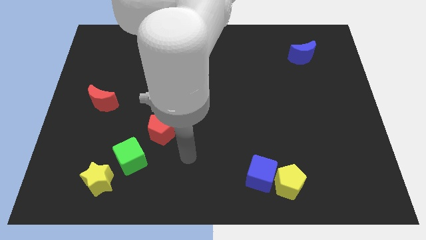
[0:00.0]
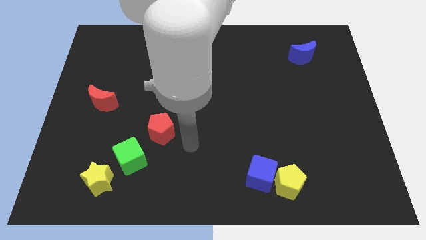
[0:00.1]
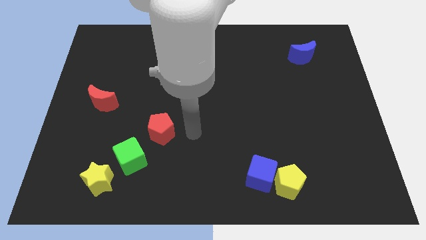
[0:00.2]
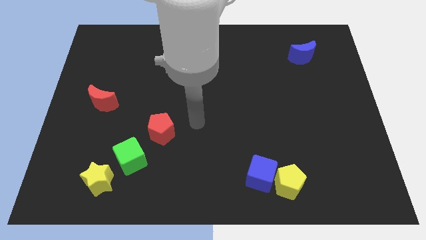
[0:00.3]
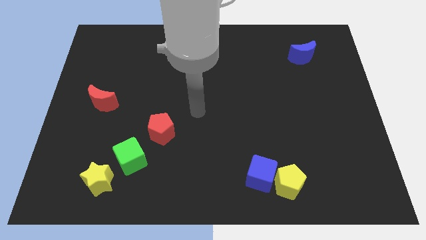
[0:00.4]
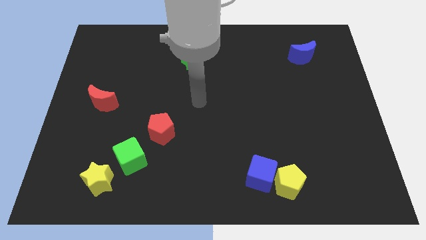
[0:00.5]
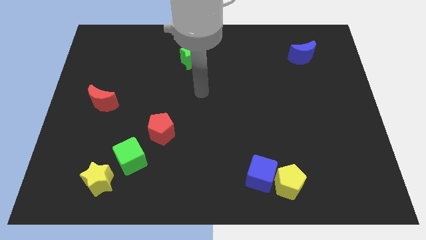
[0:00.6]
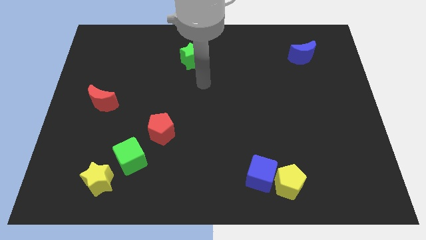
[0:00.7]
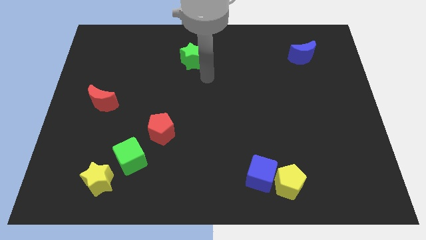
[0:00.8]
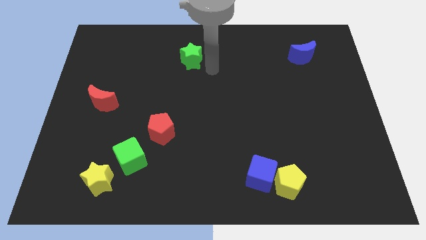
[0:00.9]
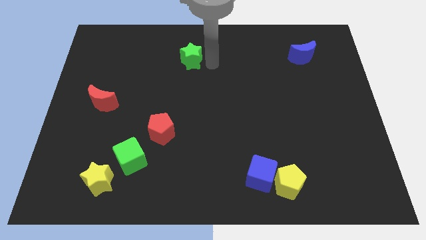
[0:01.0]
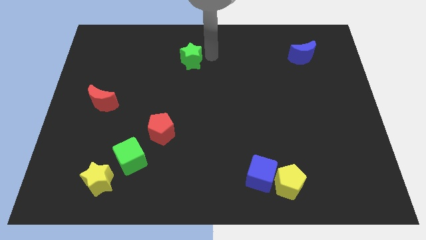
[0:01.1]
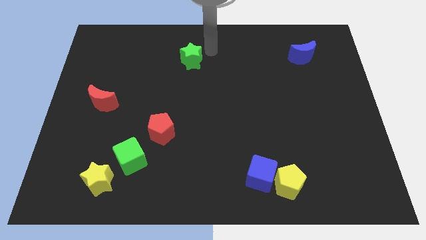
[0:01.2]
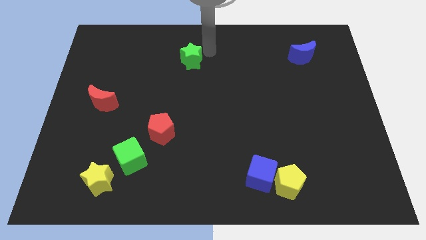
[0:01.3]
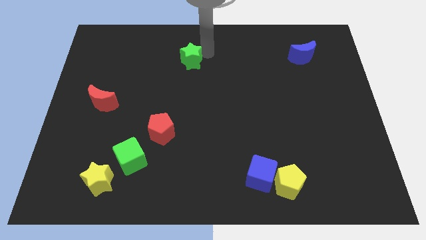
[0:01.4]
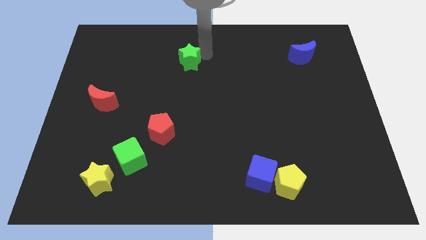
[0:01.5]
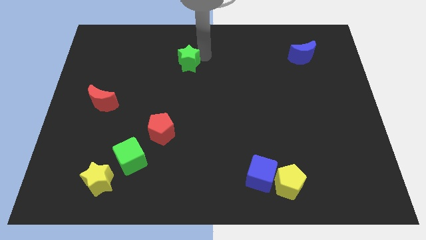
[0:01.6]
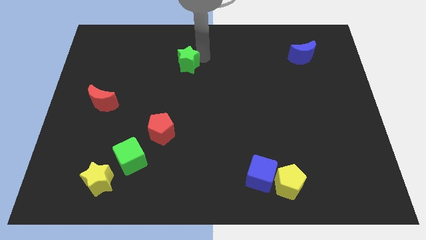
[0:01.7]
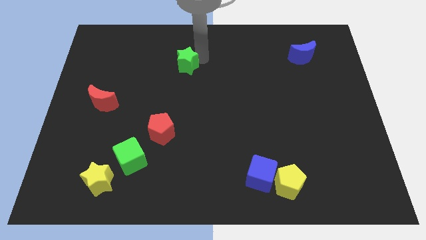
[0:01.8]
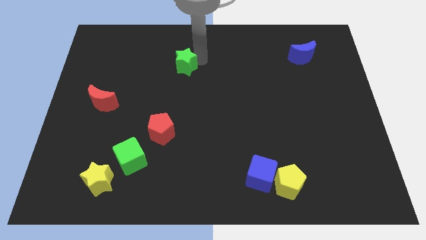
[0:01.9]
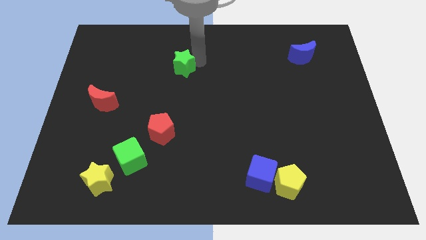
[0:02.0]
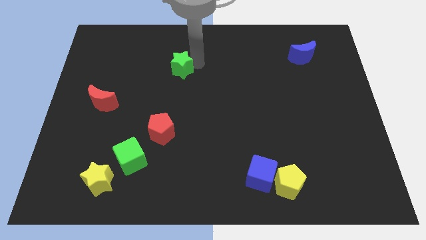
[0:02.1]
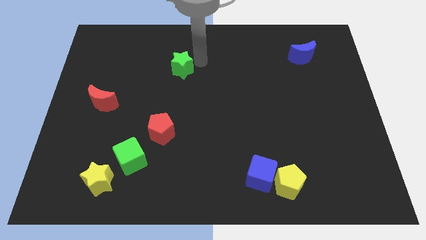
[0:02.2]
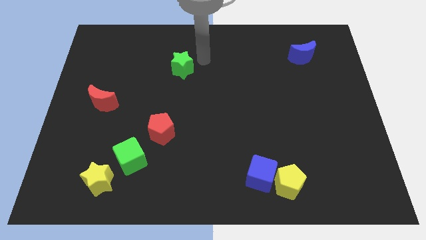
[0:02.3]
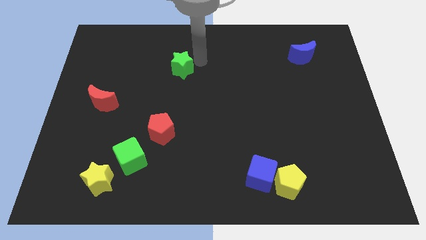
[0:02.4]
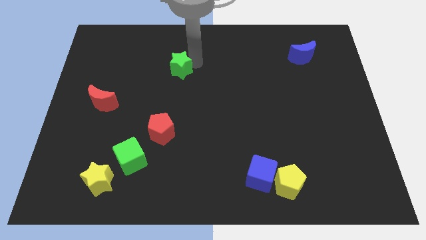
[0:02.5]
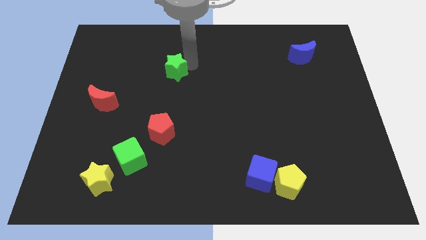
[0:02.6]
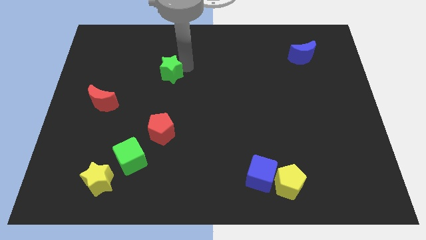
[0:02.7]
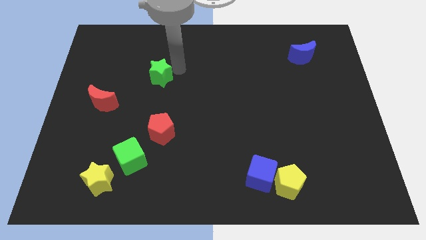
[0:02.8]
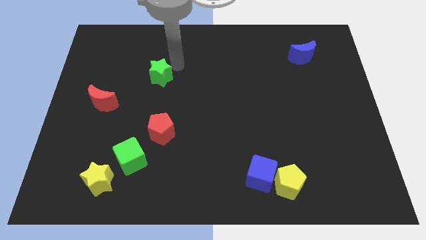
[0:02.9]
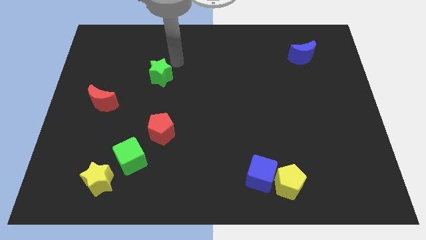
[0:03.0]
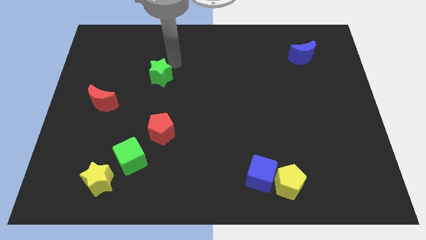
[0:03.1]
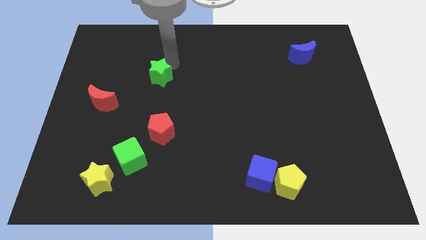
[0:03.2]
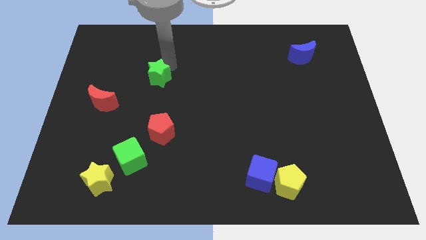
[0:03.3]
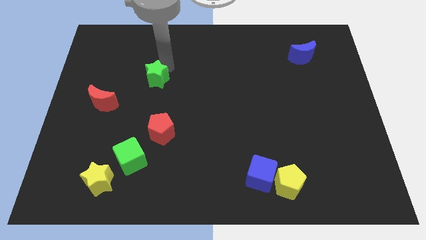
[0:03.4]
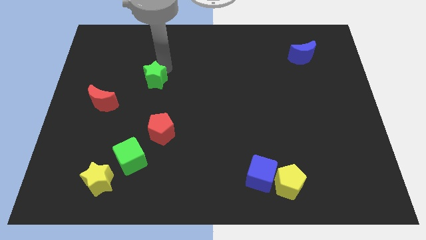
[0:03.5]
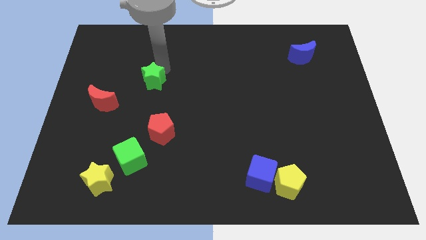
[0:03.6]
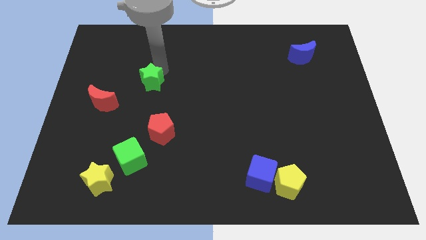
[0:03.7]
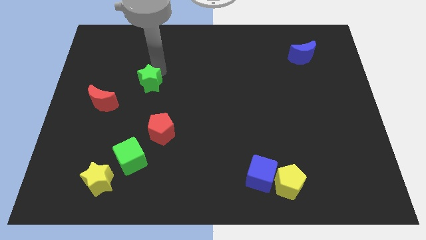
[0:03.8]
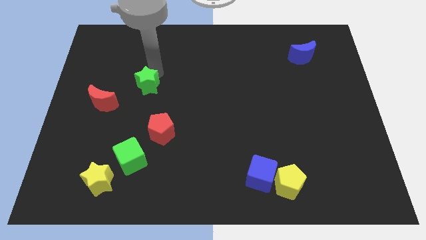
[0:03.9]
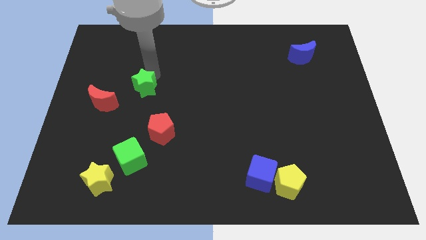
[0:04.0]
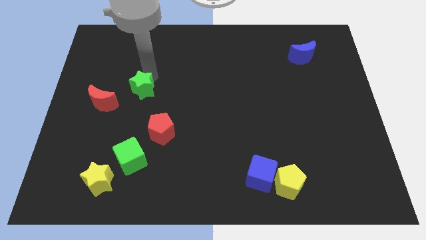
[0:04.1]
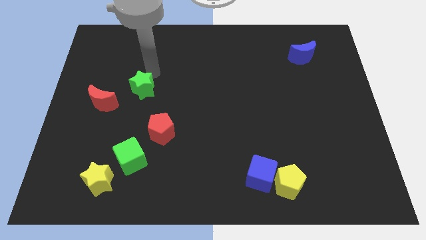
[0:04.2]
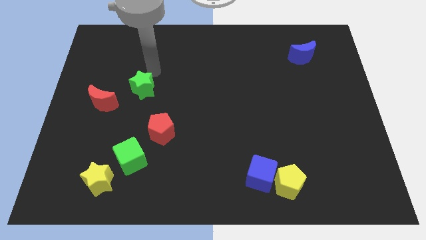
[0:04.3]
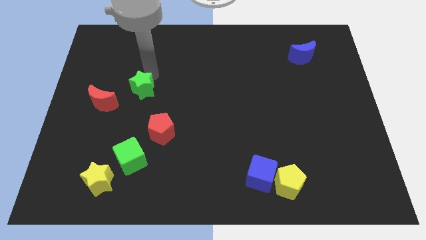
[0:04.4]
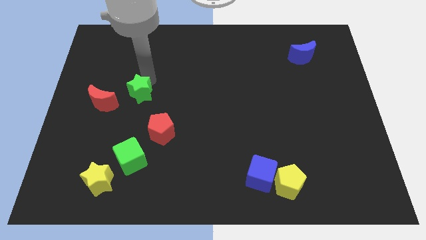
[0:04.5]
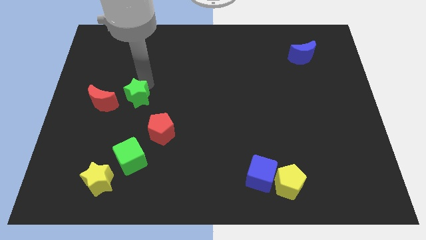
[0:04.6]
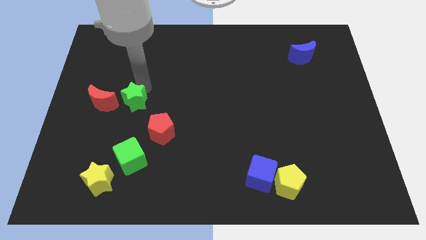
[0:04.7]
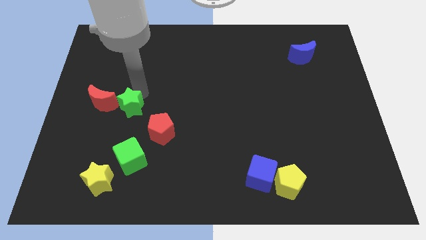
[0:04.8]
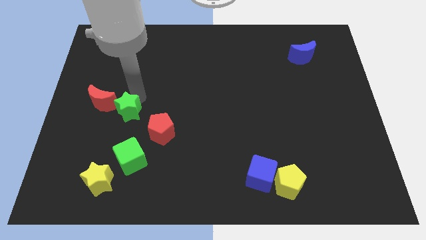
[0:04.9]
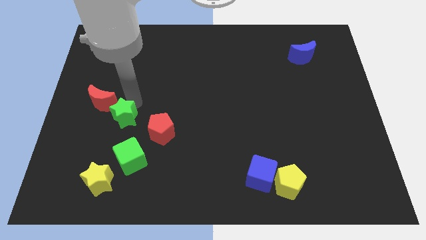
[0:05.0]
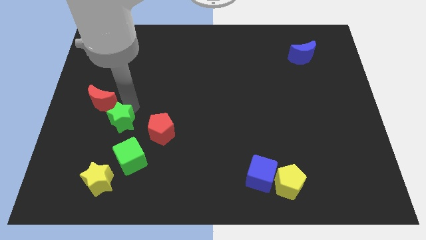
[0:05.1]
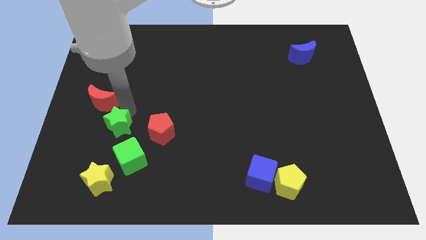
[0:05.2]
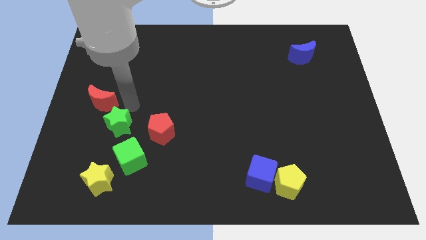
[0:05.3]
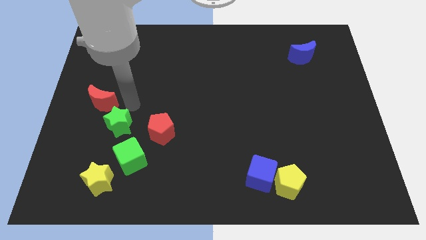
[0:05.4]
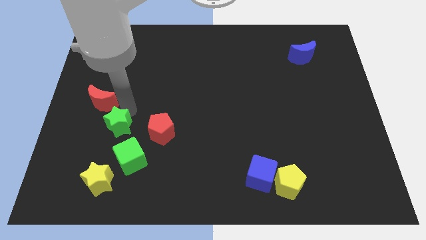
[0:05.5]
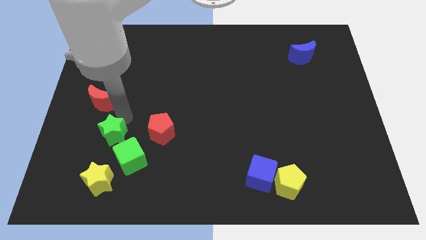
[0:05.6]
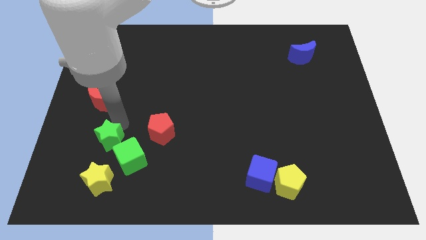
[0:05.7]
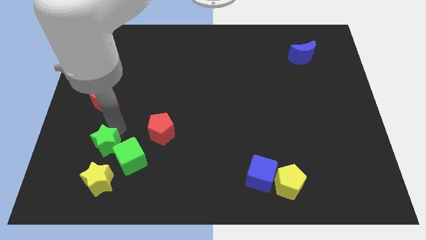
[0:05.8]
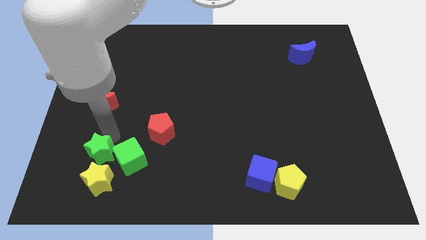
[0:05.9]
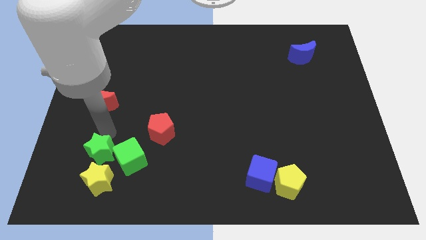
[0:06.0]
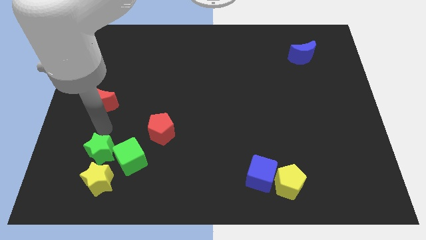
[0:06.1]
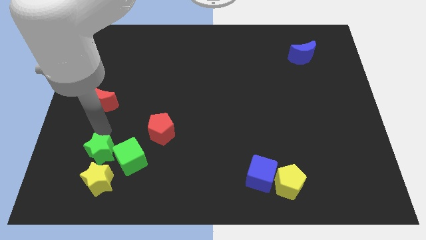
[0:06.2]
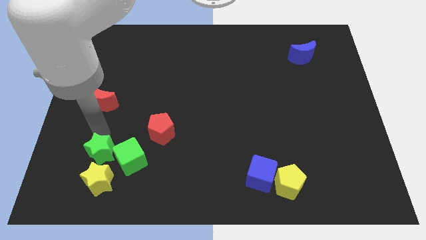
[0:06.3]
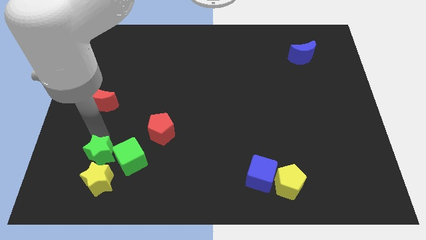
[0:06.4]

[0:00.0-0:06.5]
push the green star close to the yellow star
